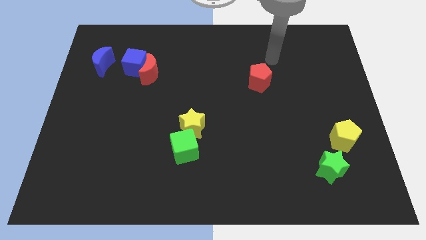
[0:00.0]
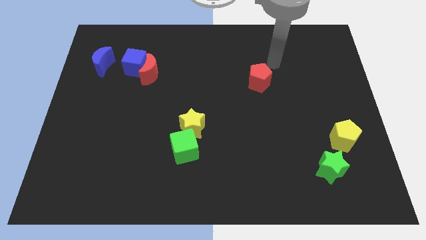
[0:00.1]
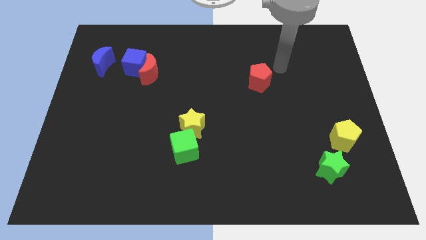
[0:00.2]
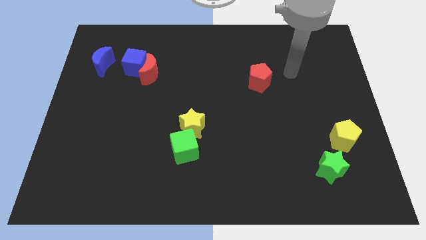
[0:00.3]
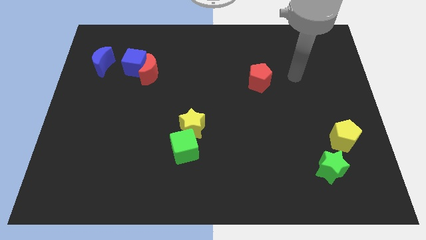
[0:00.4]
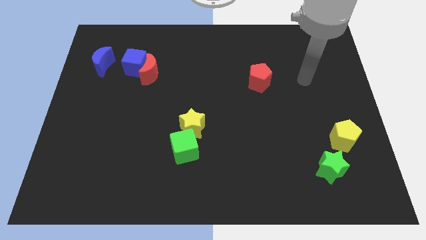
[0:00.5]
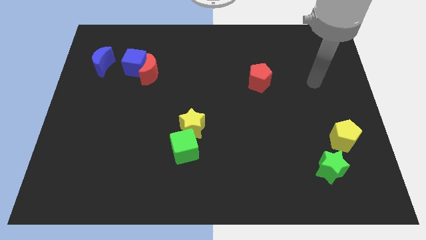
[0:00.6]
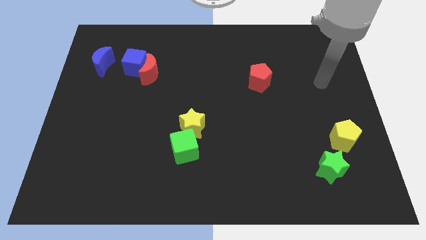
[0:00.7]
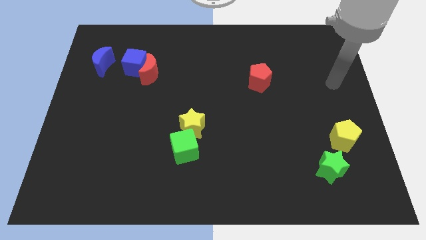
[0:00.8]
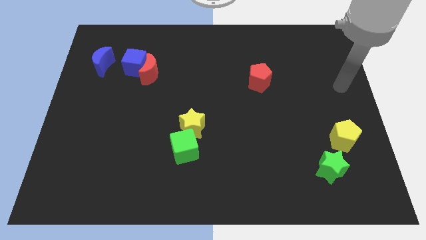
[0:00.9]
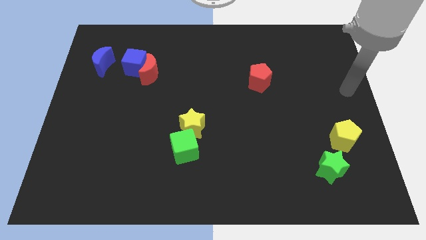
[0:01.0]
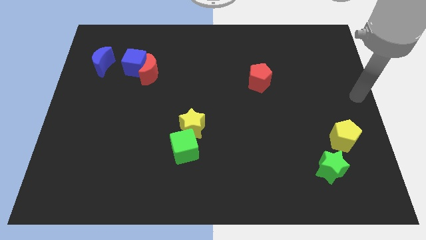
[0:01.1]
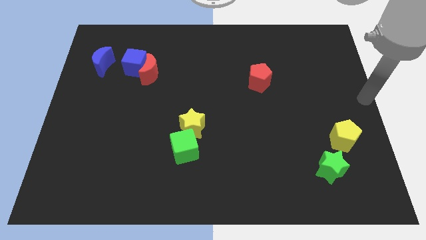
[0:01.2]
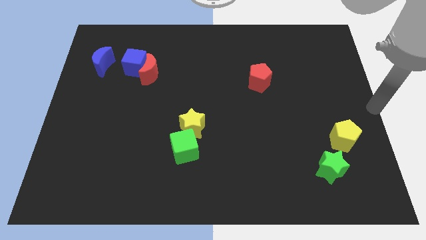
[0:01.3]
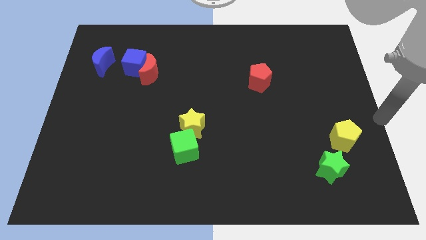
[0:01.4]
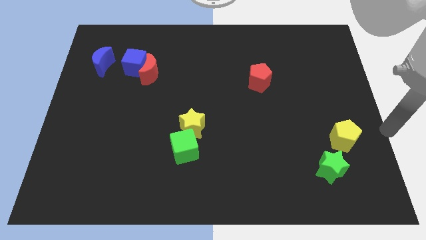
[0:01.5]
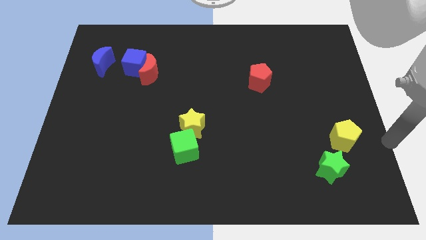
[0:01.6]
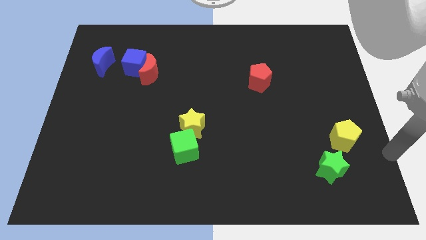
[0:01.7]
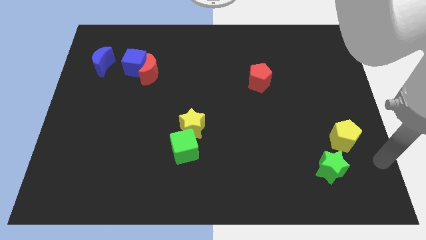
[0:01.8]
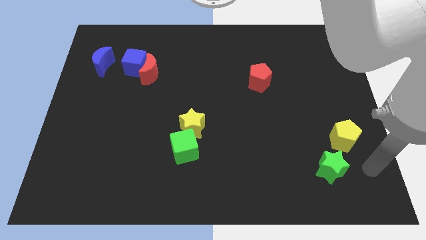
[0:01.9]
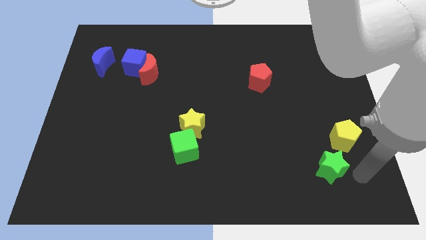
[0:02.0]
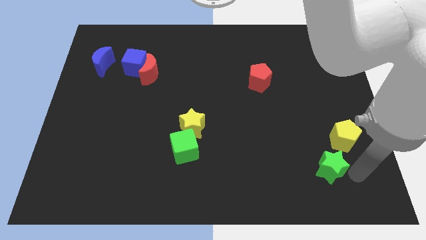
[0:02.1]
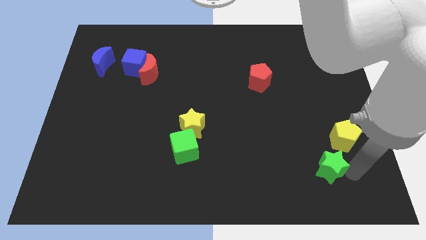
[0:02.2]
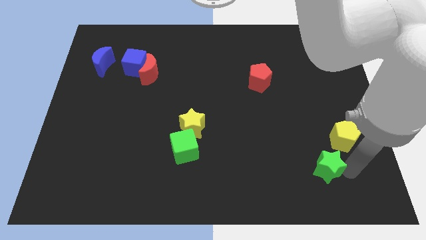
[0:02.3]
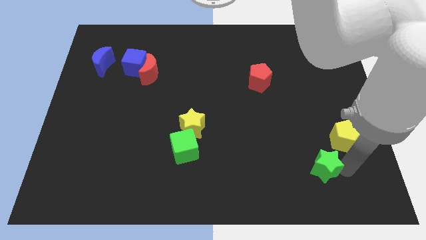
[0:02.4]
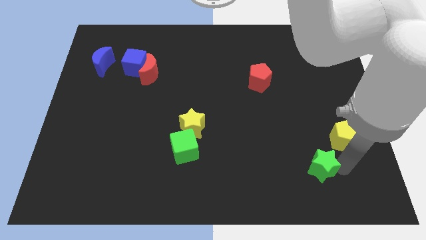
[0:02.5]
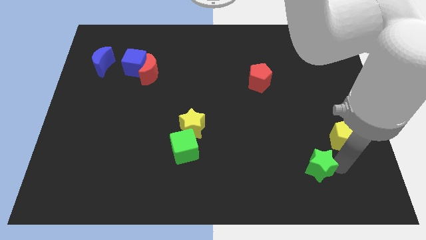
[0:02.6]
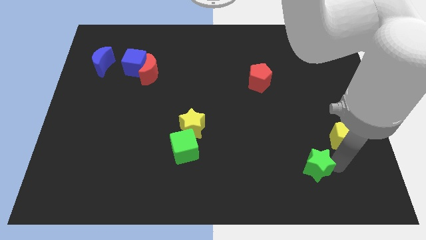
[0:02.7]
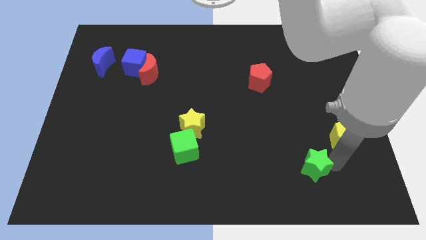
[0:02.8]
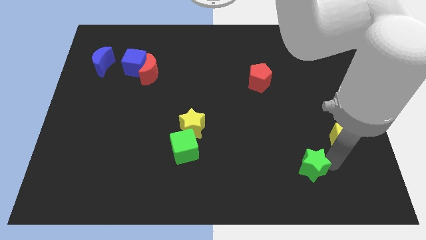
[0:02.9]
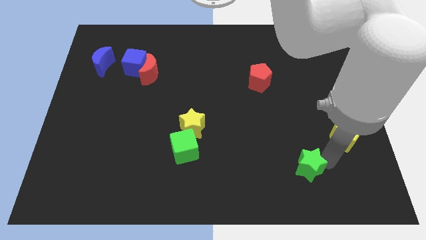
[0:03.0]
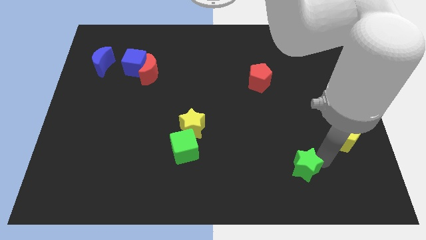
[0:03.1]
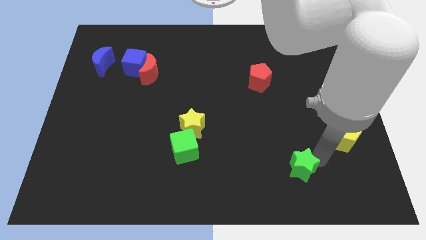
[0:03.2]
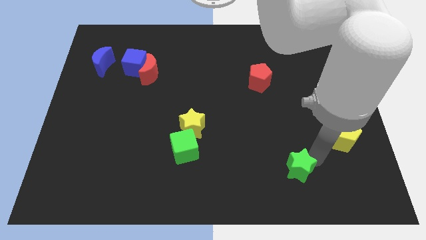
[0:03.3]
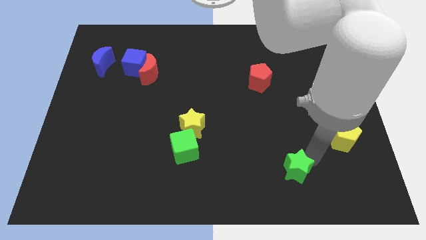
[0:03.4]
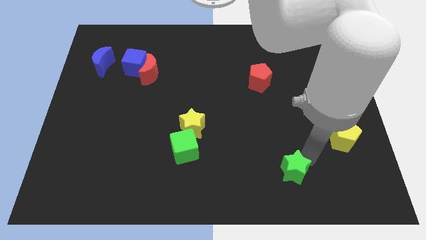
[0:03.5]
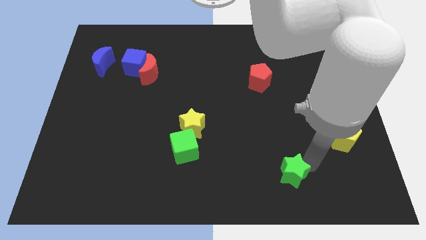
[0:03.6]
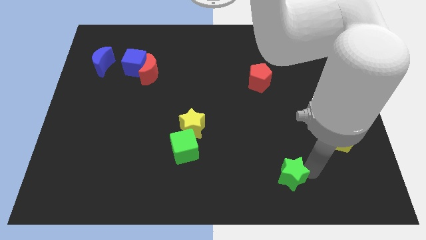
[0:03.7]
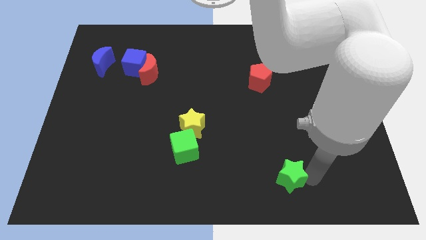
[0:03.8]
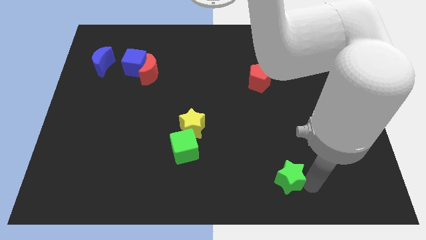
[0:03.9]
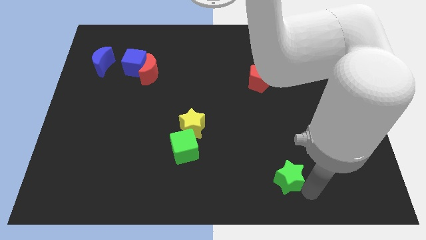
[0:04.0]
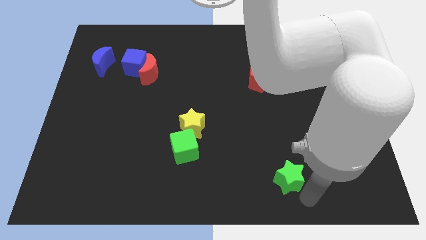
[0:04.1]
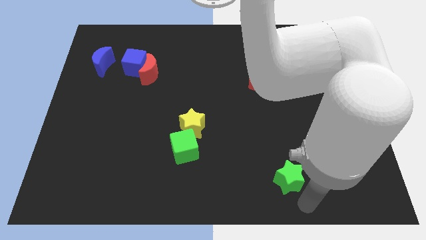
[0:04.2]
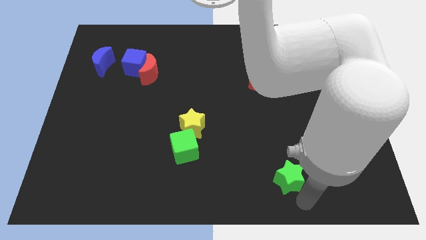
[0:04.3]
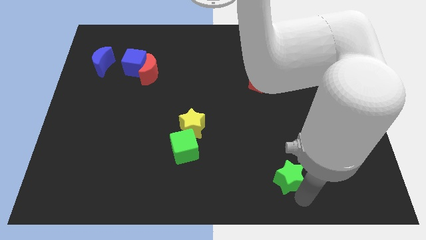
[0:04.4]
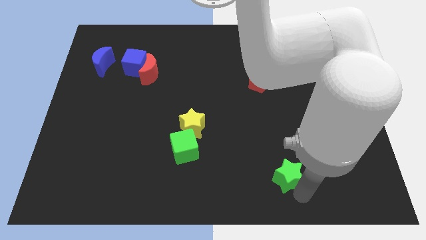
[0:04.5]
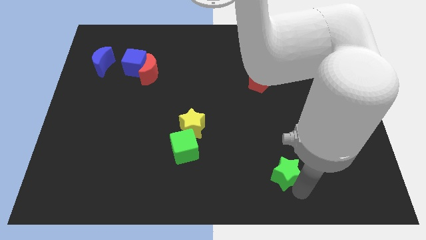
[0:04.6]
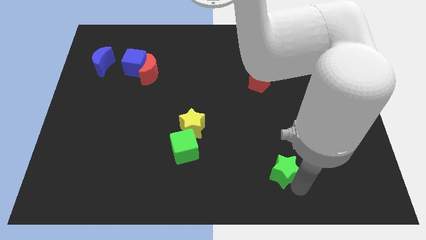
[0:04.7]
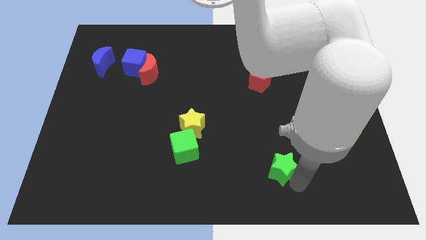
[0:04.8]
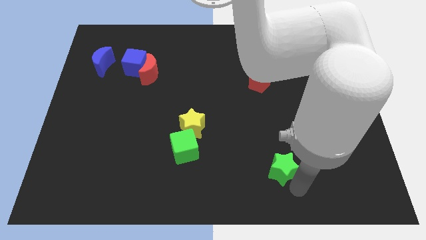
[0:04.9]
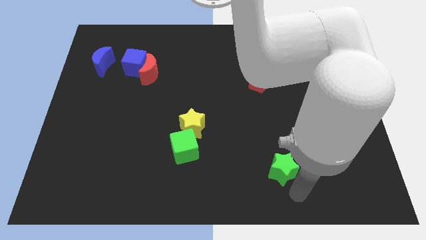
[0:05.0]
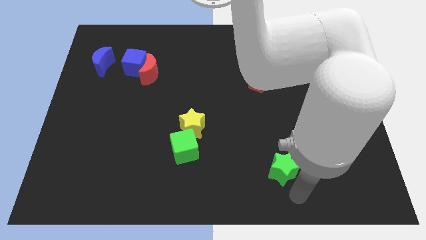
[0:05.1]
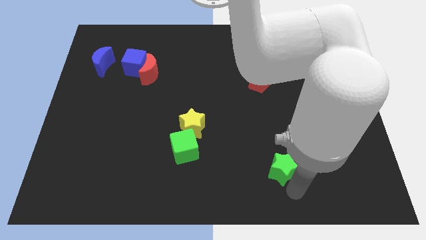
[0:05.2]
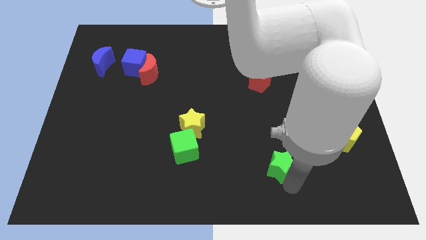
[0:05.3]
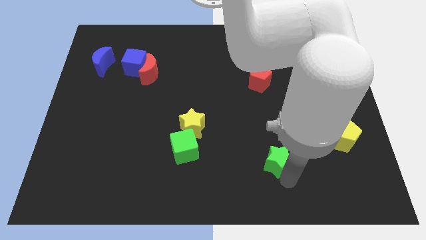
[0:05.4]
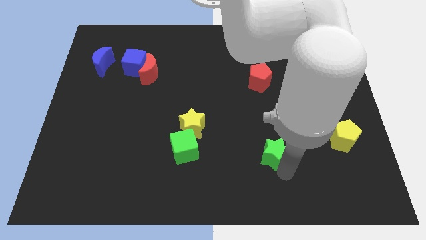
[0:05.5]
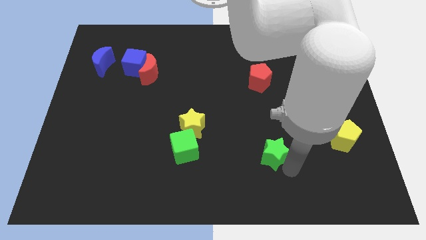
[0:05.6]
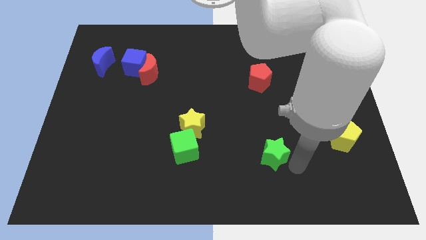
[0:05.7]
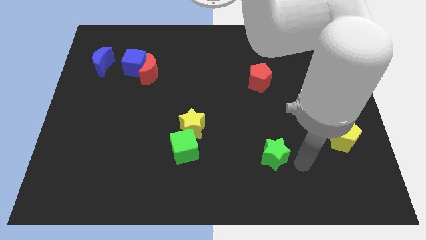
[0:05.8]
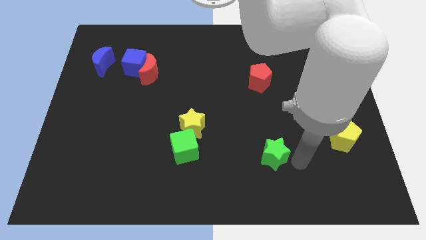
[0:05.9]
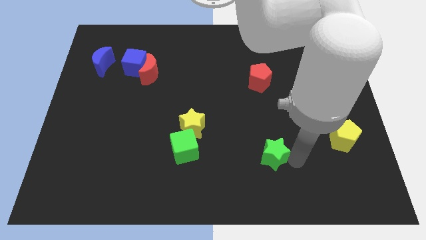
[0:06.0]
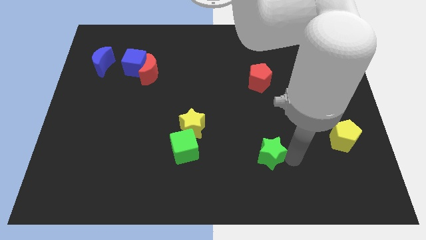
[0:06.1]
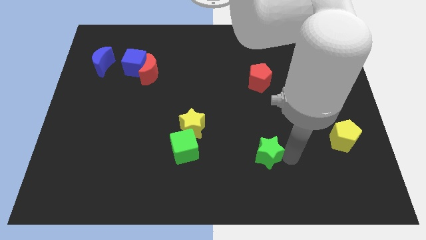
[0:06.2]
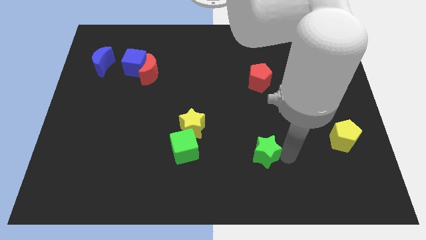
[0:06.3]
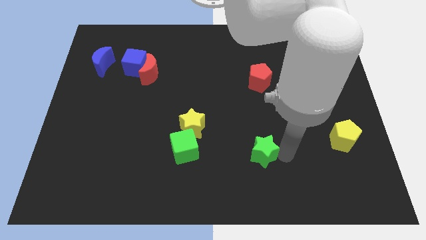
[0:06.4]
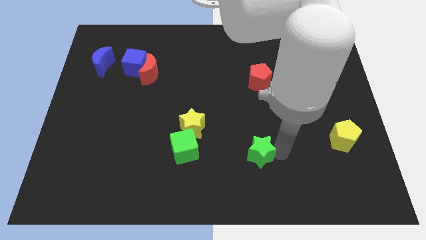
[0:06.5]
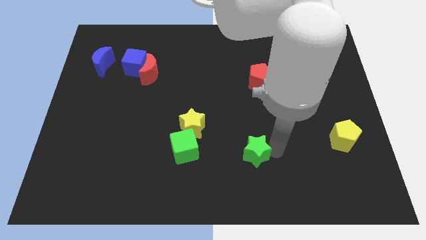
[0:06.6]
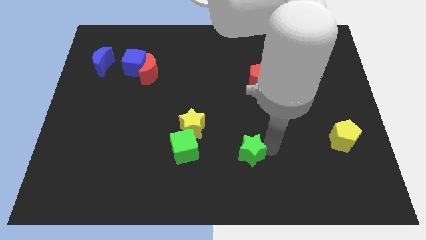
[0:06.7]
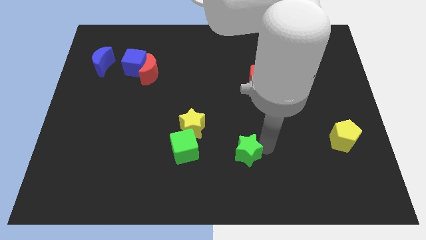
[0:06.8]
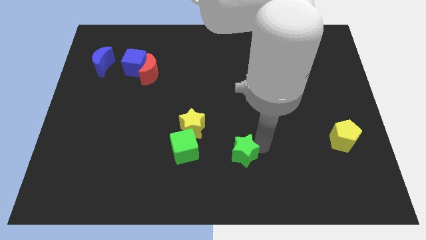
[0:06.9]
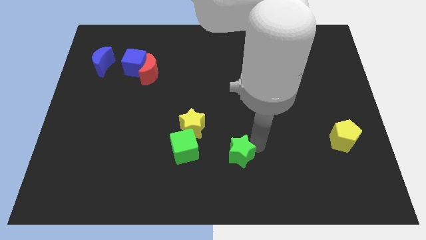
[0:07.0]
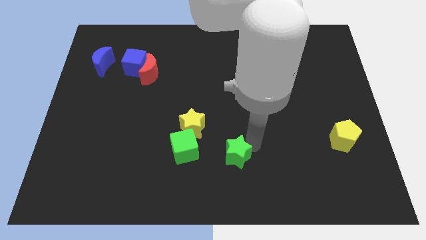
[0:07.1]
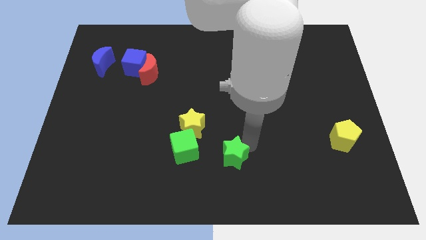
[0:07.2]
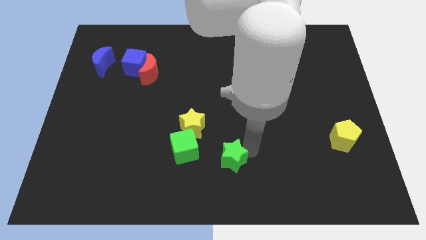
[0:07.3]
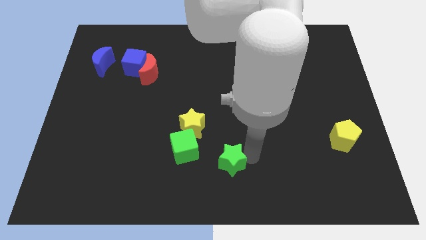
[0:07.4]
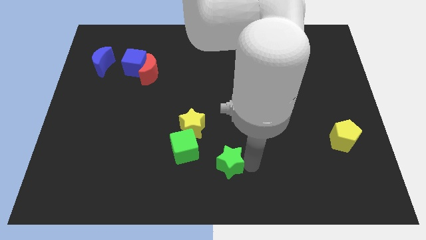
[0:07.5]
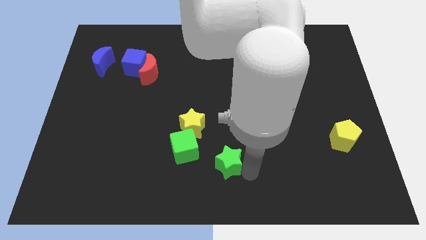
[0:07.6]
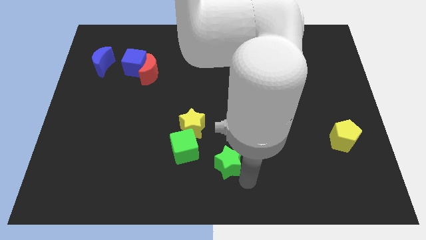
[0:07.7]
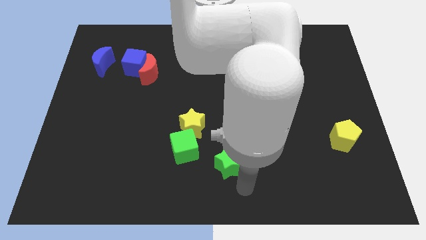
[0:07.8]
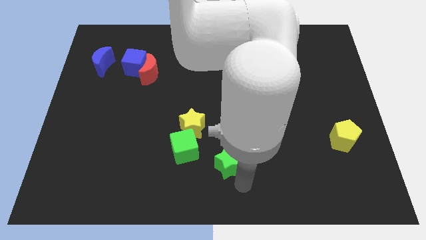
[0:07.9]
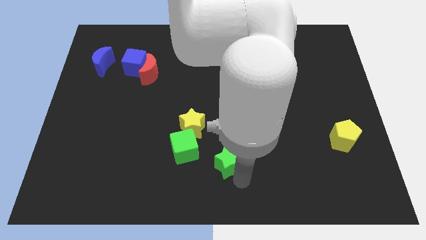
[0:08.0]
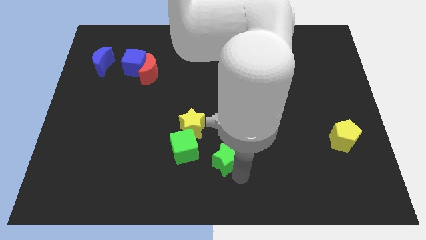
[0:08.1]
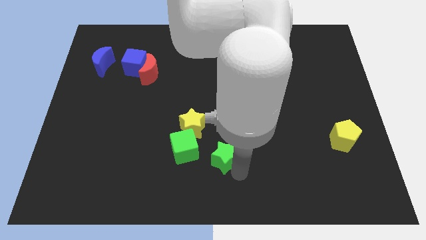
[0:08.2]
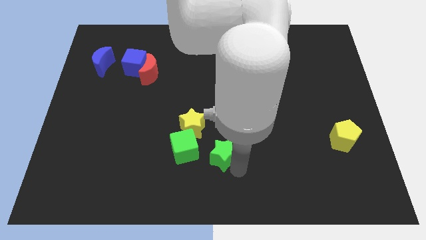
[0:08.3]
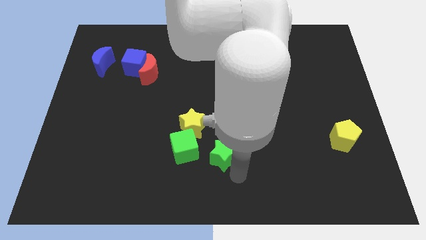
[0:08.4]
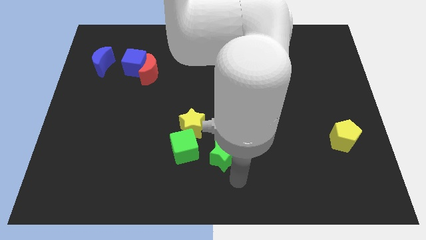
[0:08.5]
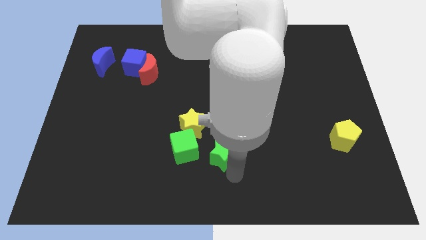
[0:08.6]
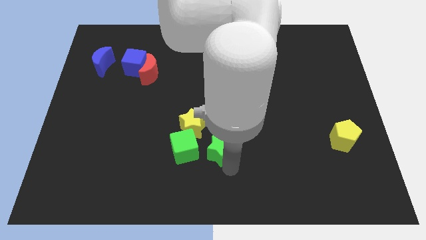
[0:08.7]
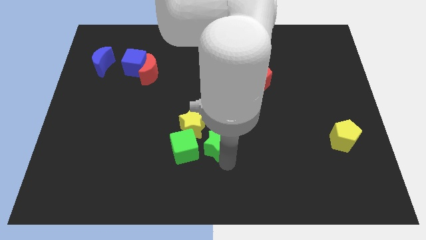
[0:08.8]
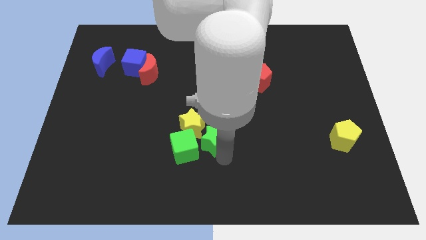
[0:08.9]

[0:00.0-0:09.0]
move the green star towards the yellow star
